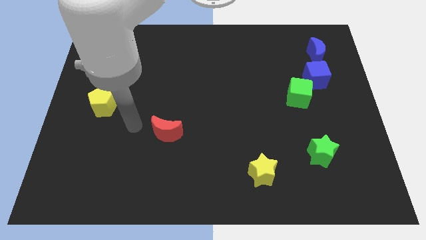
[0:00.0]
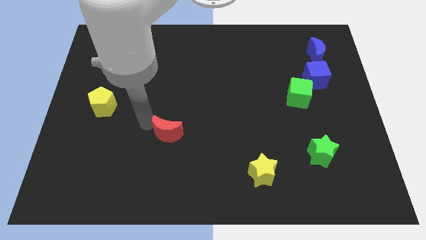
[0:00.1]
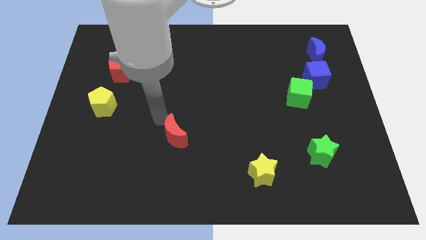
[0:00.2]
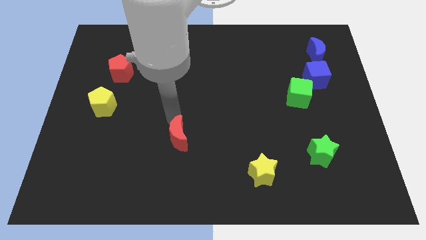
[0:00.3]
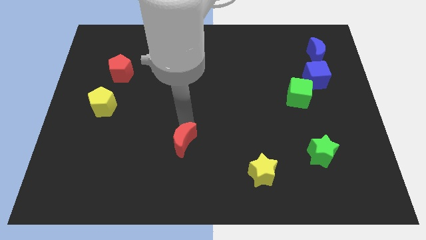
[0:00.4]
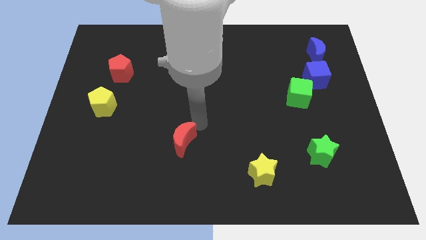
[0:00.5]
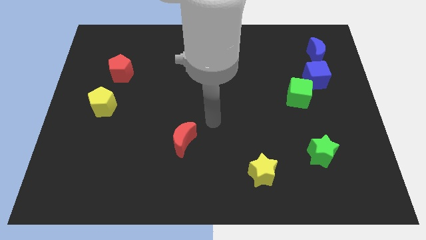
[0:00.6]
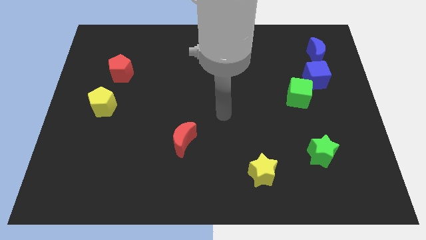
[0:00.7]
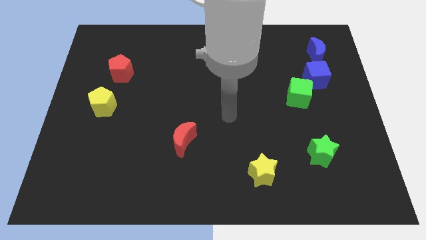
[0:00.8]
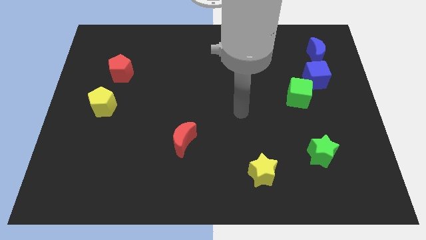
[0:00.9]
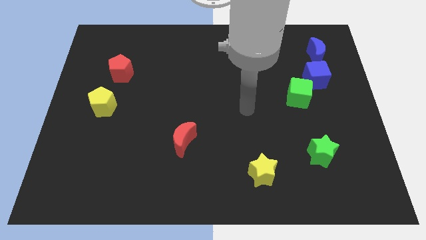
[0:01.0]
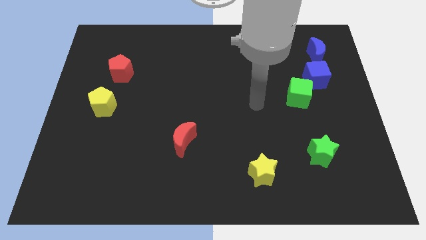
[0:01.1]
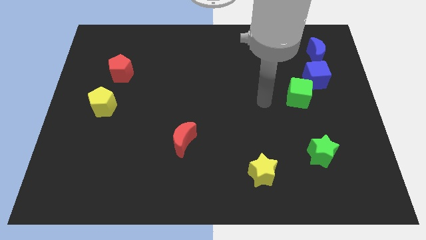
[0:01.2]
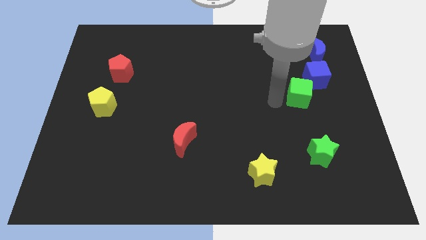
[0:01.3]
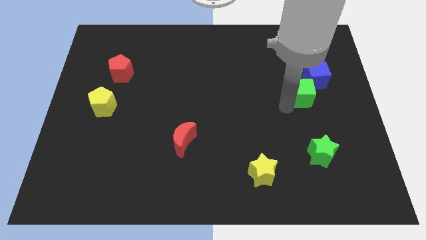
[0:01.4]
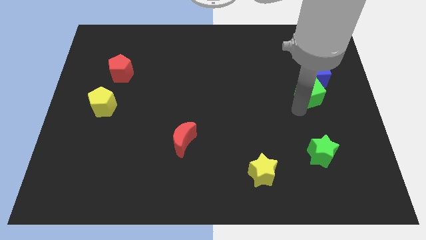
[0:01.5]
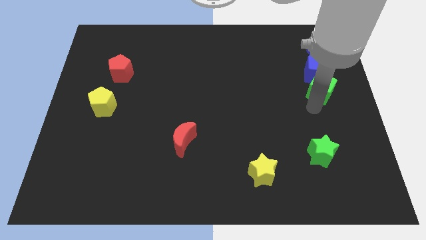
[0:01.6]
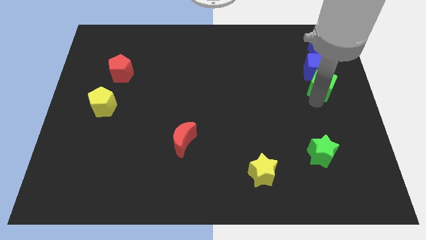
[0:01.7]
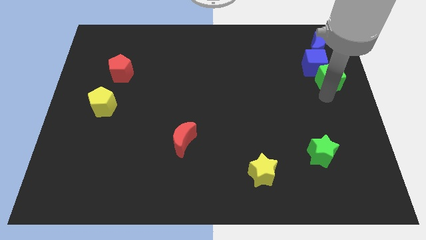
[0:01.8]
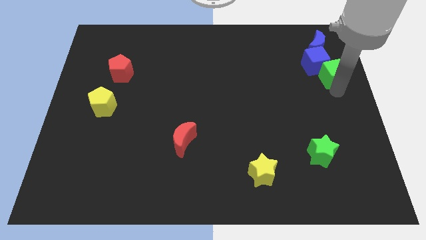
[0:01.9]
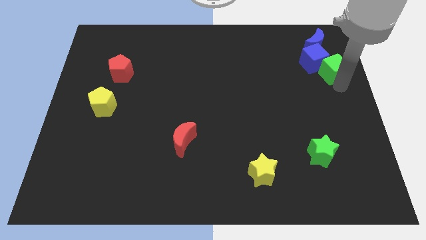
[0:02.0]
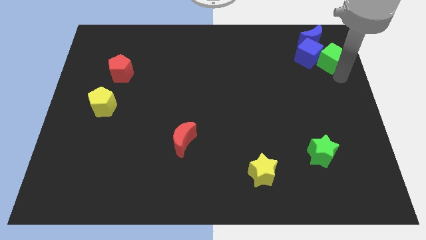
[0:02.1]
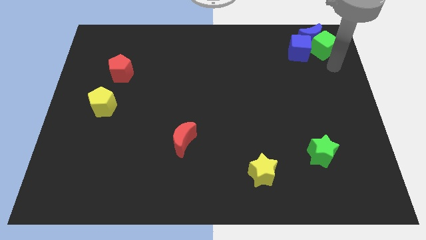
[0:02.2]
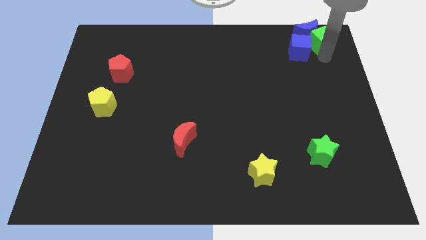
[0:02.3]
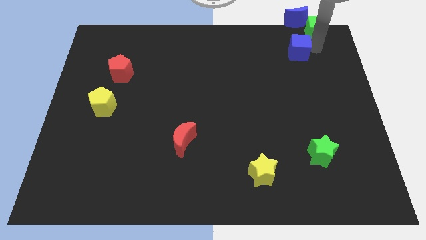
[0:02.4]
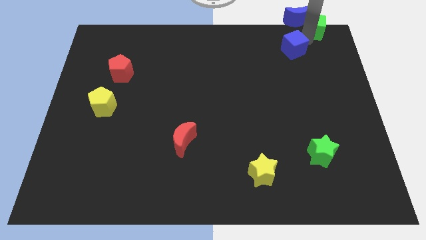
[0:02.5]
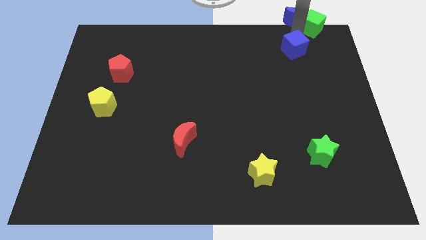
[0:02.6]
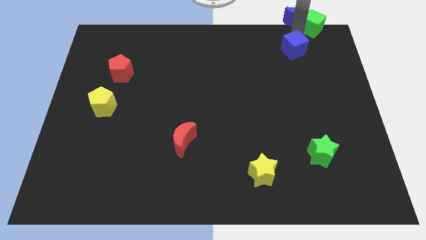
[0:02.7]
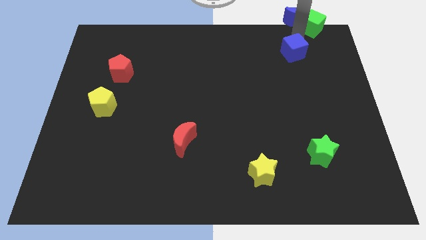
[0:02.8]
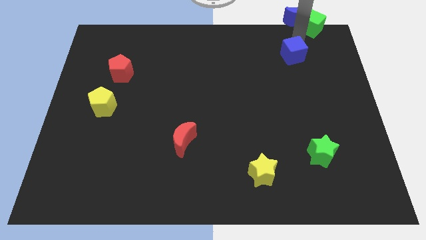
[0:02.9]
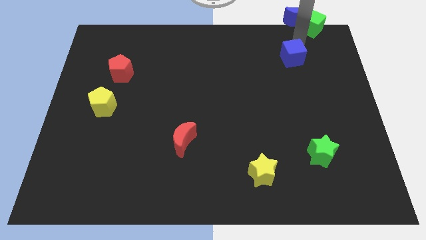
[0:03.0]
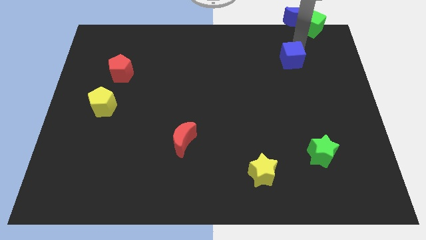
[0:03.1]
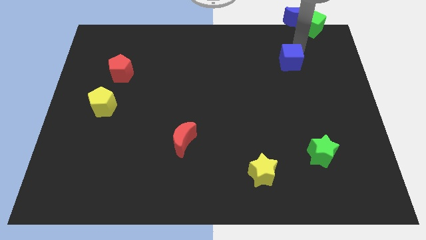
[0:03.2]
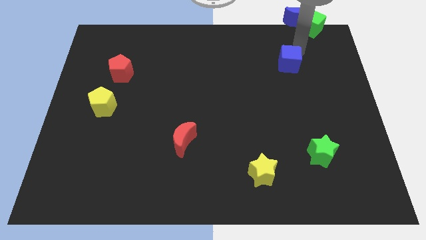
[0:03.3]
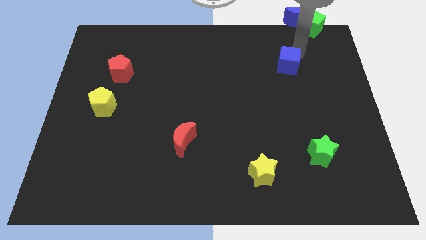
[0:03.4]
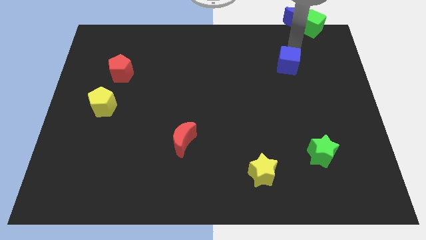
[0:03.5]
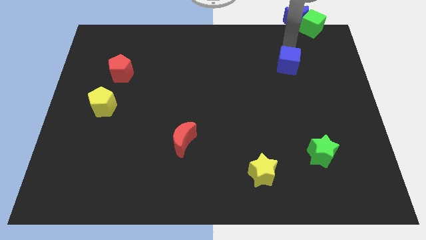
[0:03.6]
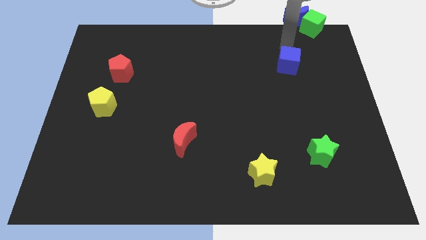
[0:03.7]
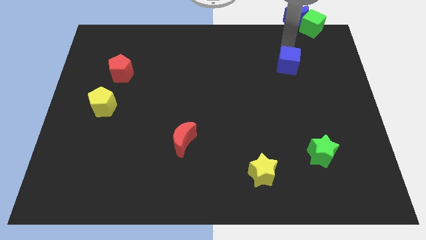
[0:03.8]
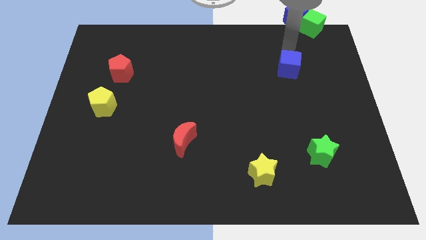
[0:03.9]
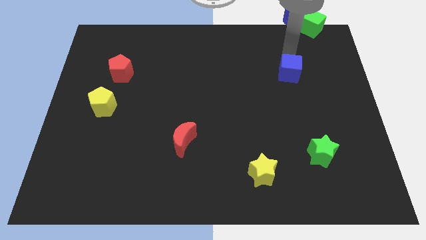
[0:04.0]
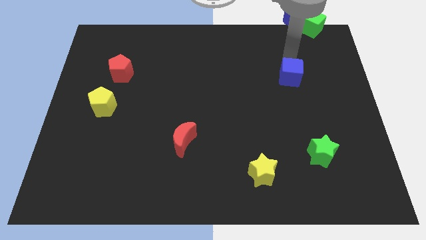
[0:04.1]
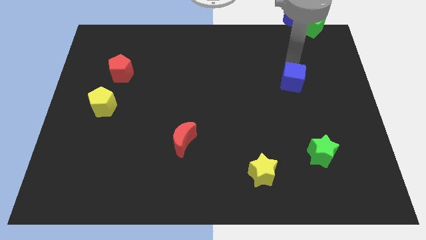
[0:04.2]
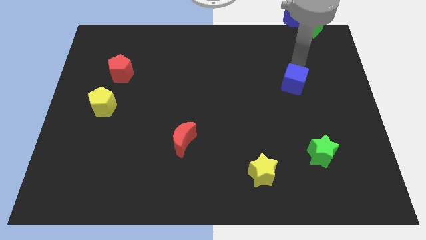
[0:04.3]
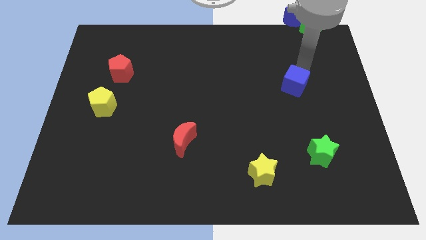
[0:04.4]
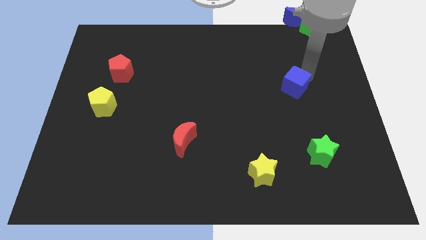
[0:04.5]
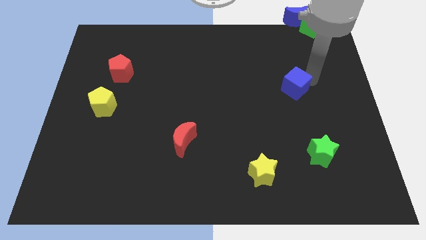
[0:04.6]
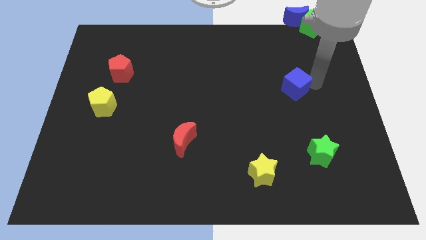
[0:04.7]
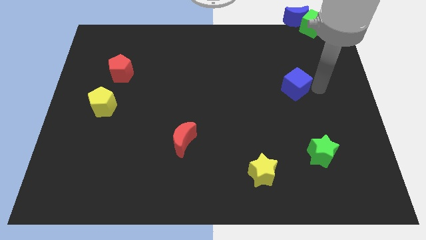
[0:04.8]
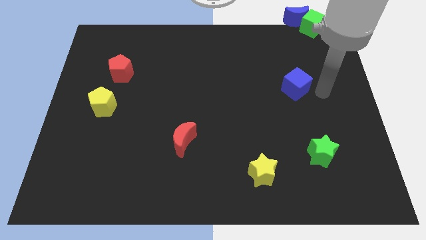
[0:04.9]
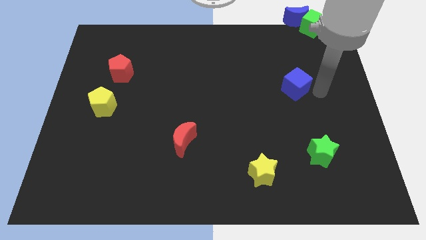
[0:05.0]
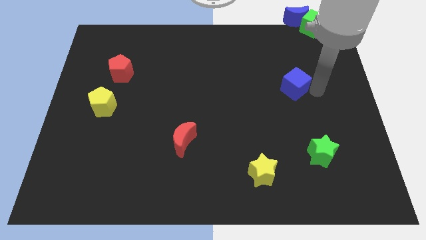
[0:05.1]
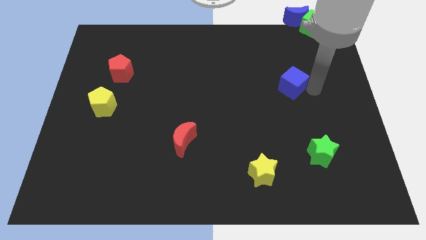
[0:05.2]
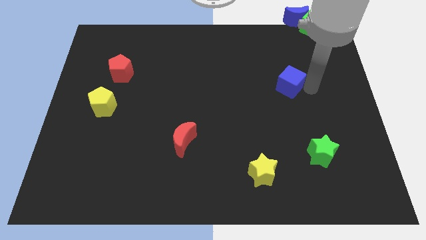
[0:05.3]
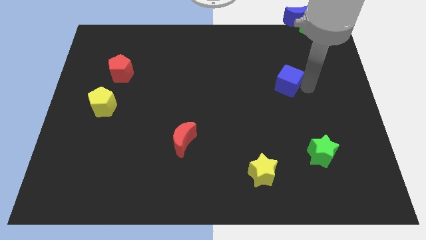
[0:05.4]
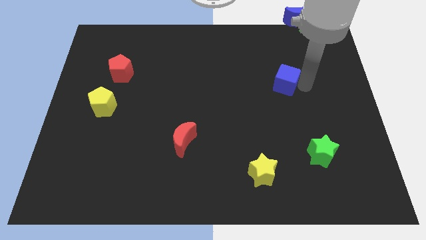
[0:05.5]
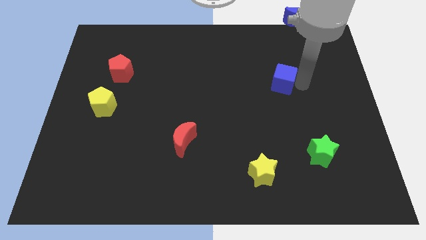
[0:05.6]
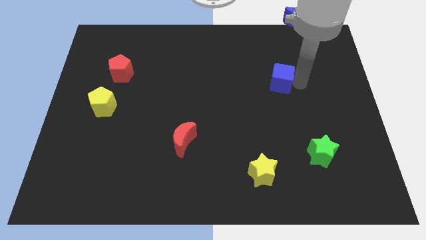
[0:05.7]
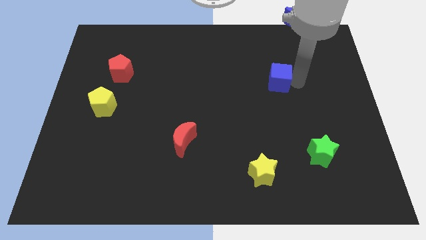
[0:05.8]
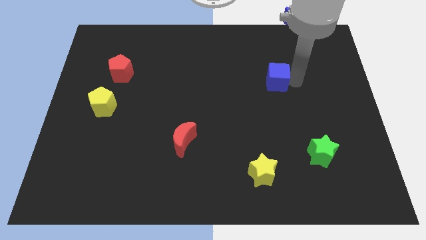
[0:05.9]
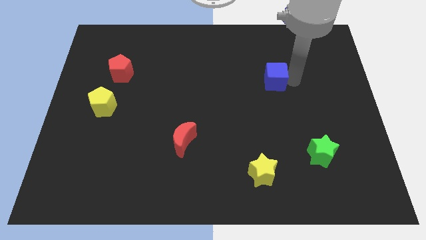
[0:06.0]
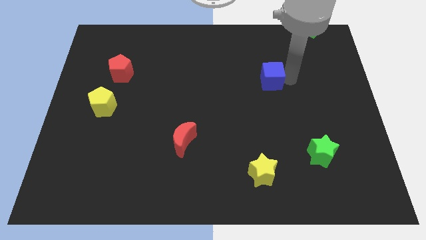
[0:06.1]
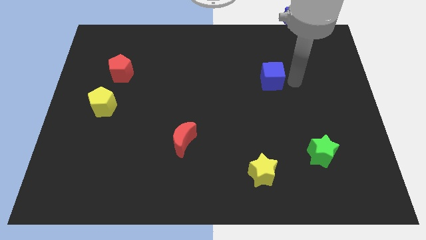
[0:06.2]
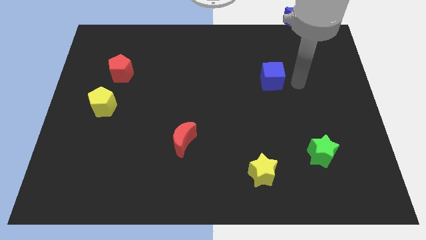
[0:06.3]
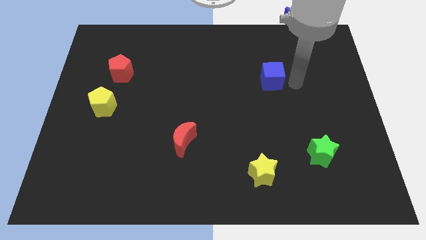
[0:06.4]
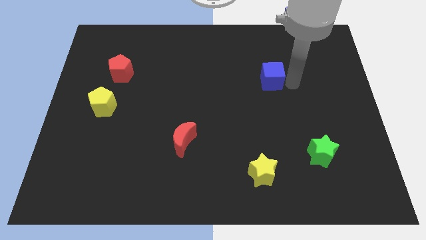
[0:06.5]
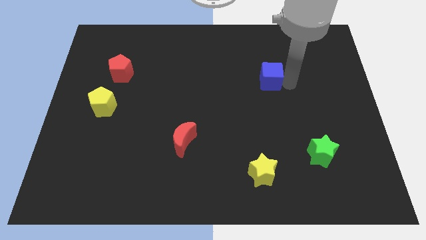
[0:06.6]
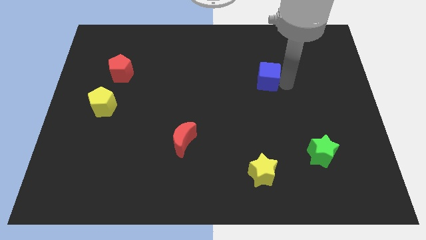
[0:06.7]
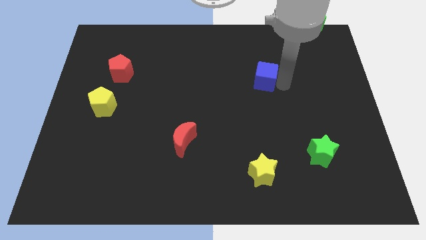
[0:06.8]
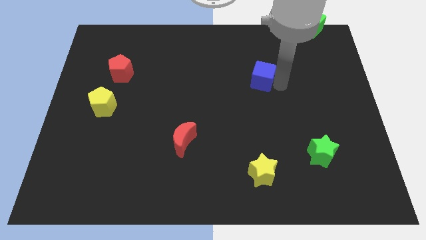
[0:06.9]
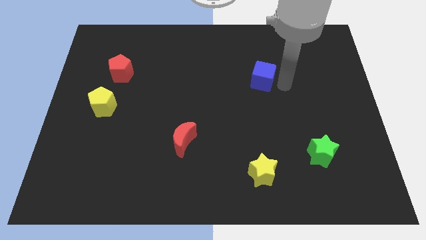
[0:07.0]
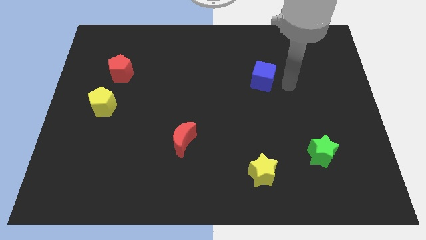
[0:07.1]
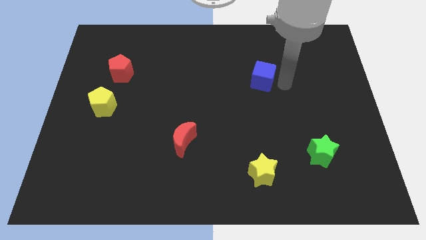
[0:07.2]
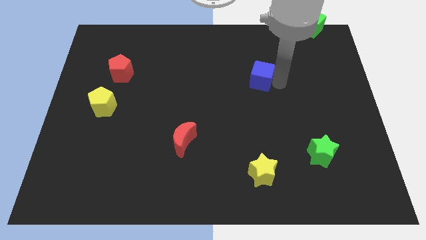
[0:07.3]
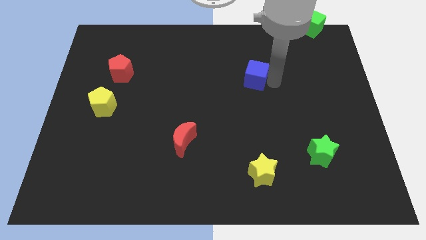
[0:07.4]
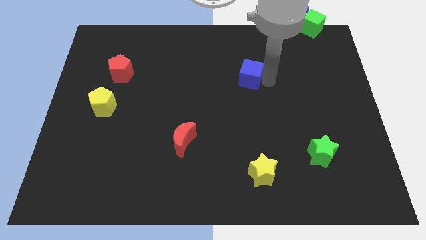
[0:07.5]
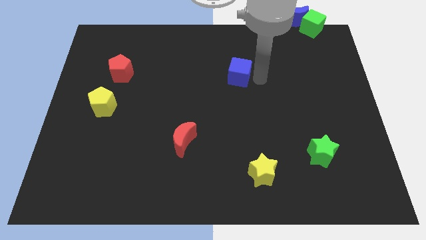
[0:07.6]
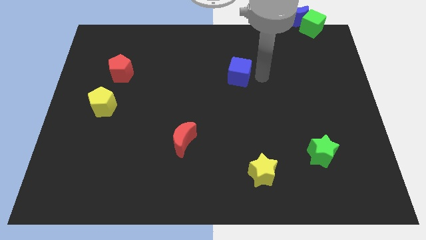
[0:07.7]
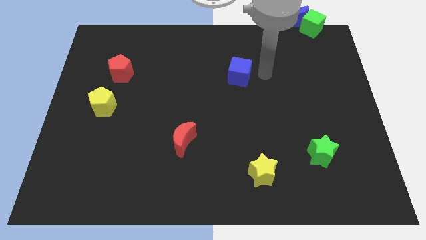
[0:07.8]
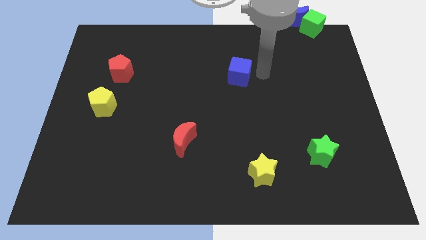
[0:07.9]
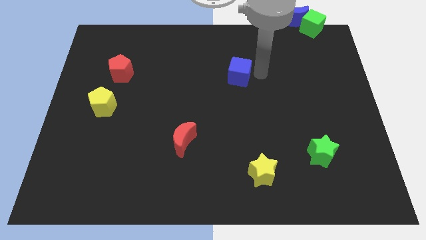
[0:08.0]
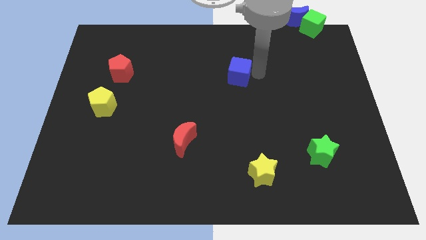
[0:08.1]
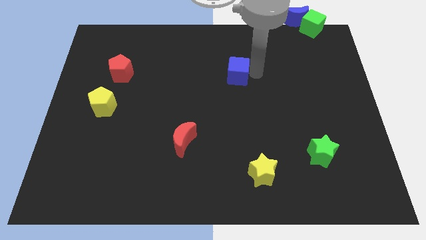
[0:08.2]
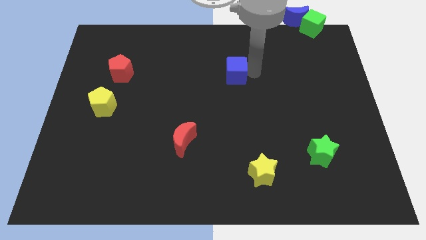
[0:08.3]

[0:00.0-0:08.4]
move the blue cube left
